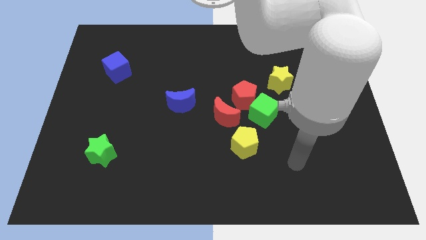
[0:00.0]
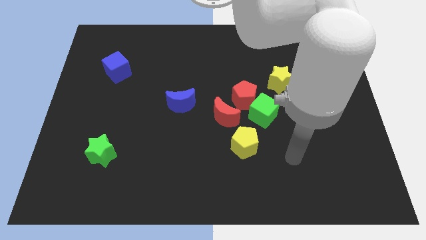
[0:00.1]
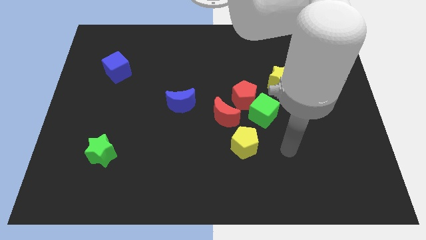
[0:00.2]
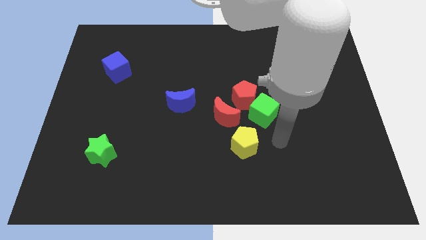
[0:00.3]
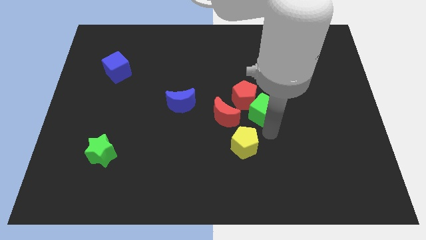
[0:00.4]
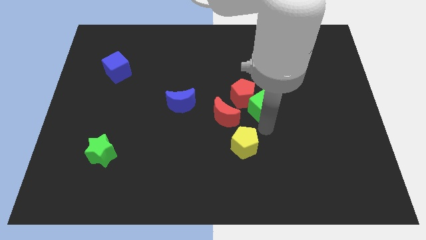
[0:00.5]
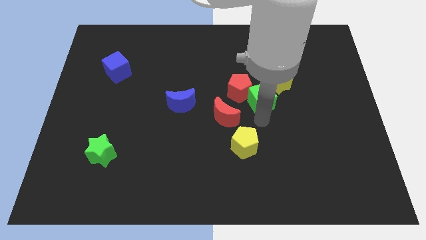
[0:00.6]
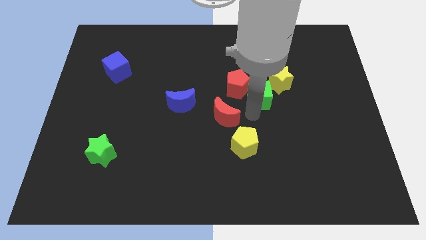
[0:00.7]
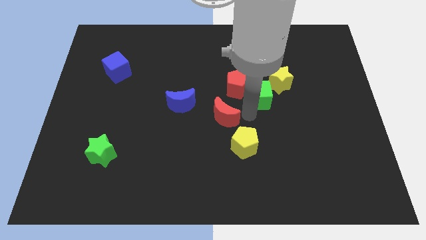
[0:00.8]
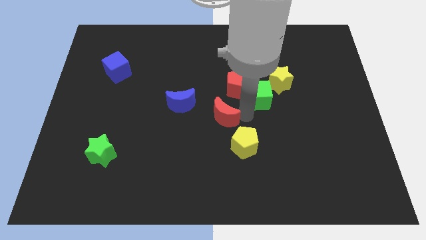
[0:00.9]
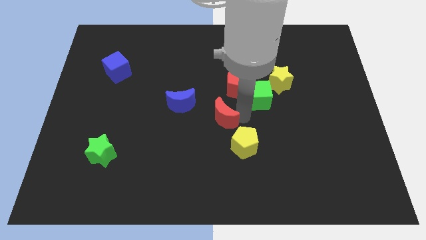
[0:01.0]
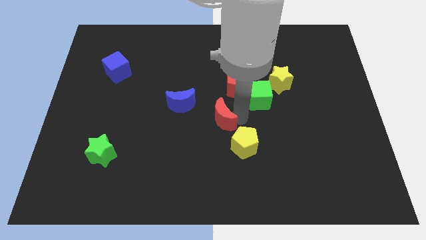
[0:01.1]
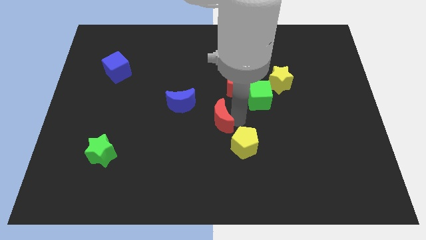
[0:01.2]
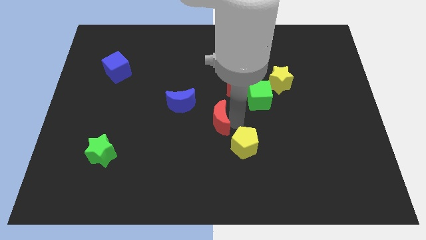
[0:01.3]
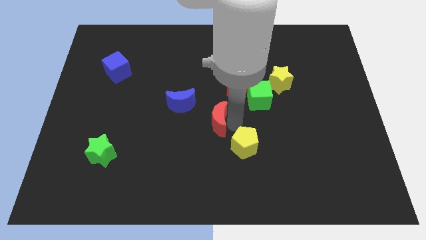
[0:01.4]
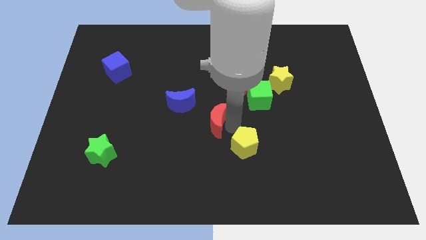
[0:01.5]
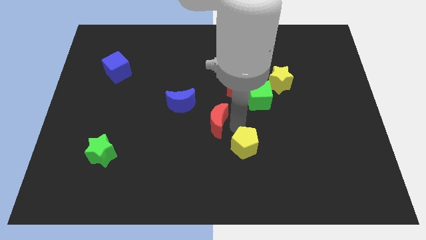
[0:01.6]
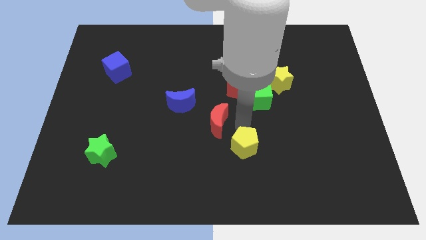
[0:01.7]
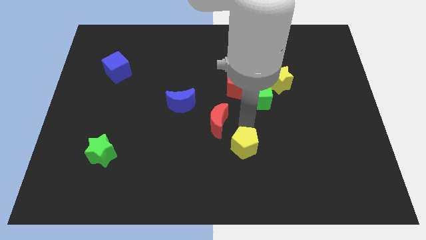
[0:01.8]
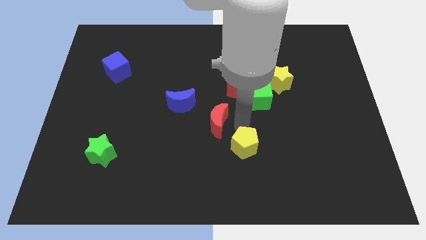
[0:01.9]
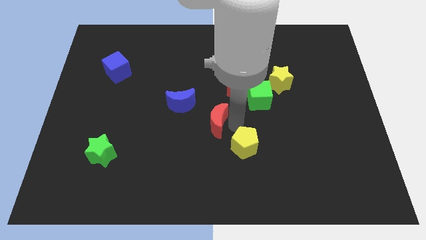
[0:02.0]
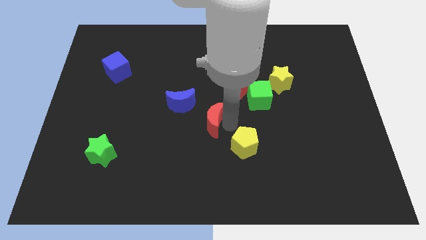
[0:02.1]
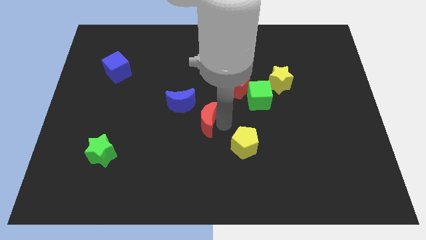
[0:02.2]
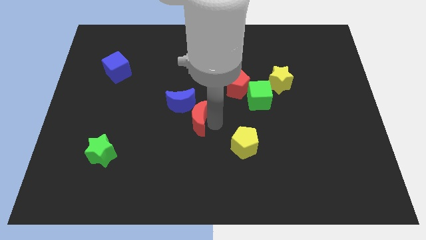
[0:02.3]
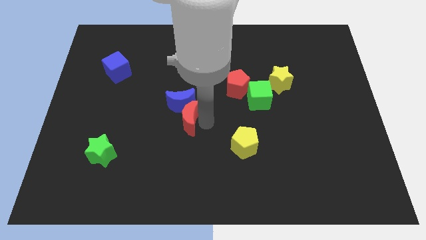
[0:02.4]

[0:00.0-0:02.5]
push the red moon slightly left

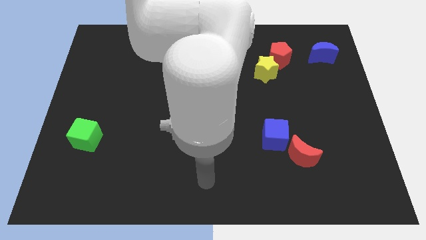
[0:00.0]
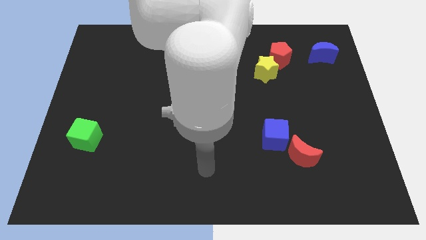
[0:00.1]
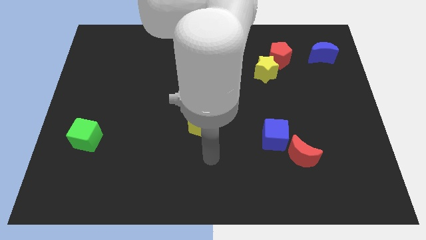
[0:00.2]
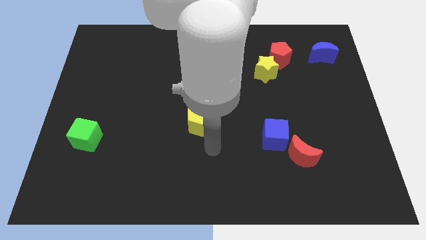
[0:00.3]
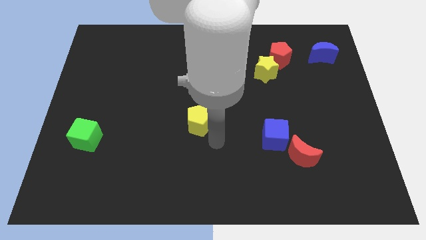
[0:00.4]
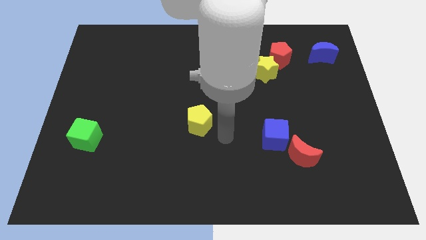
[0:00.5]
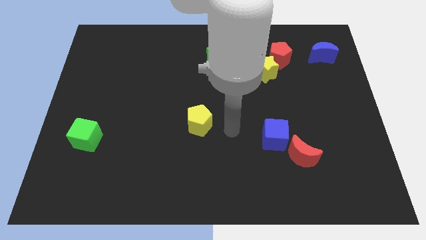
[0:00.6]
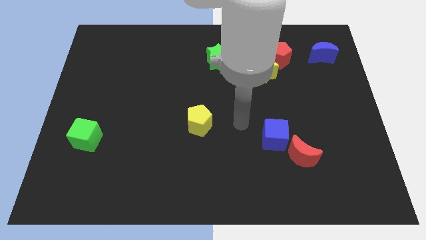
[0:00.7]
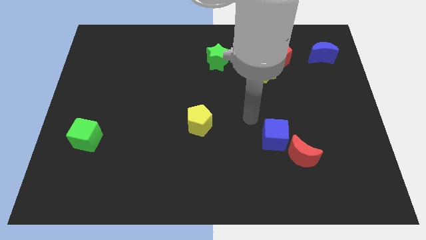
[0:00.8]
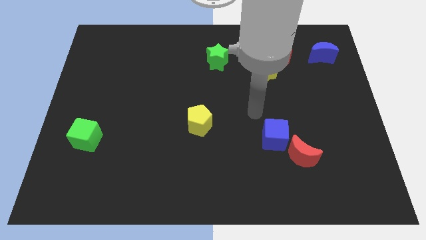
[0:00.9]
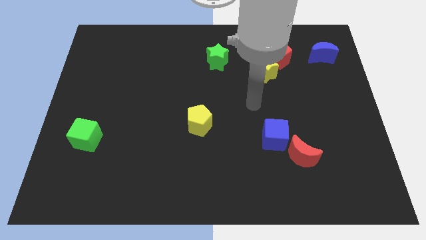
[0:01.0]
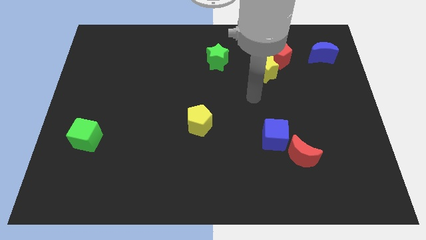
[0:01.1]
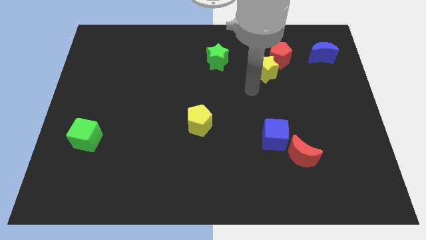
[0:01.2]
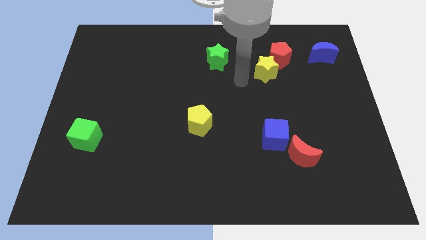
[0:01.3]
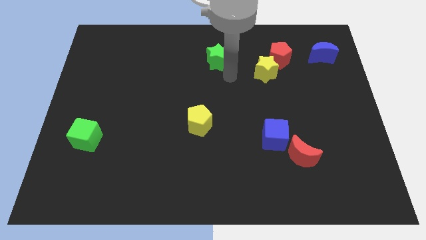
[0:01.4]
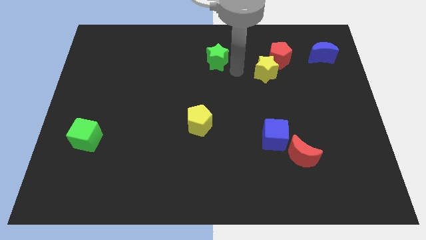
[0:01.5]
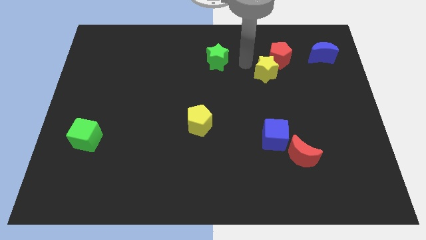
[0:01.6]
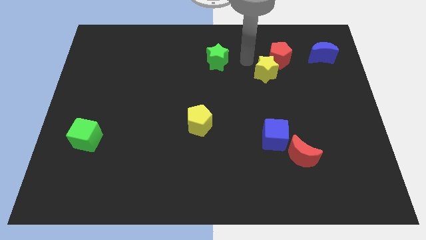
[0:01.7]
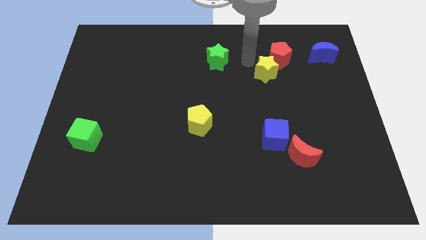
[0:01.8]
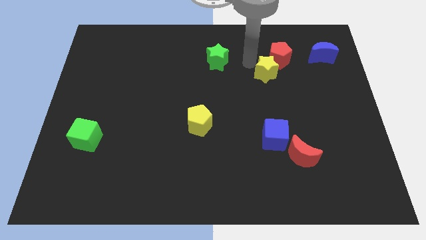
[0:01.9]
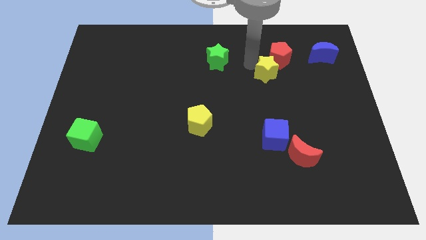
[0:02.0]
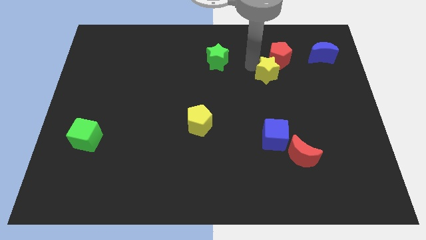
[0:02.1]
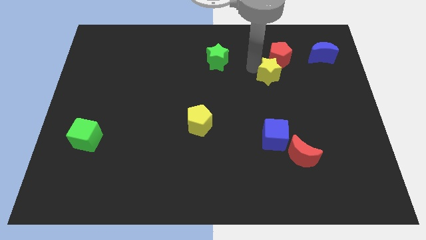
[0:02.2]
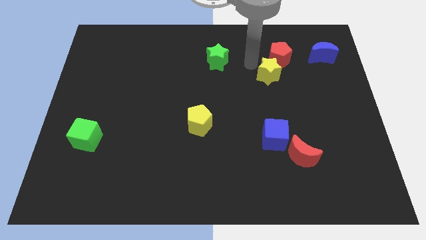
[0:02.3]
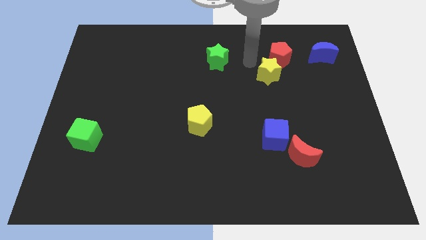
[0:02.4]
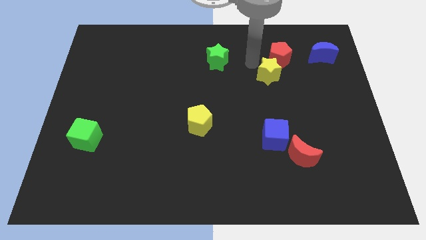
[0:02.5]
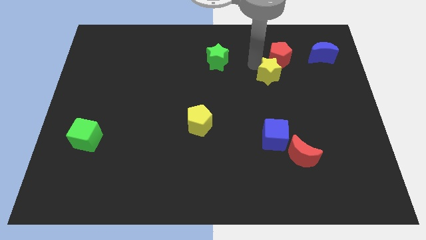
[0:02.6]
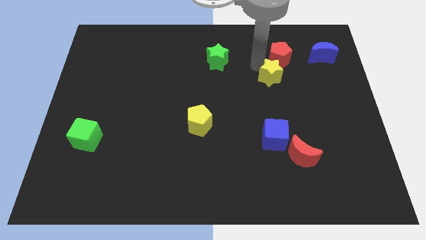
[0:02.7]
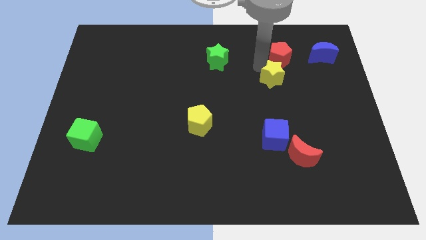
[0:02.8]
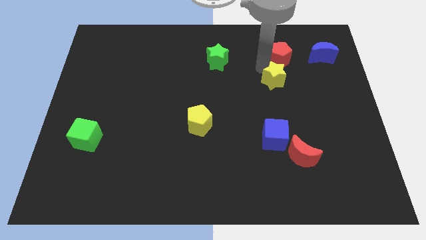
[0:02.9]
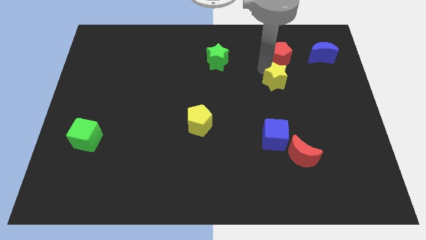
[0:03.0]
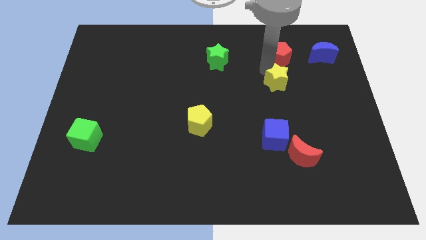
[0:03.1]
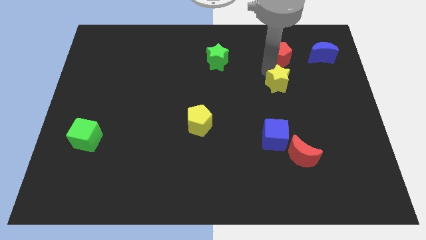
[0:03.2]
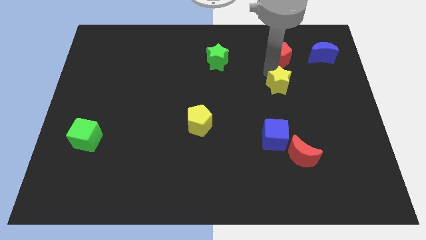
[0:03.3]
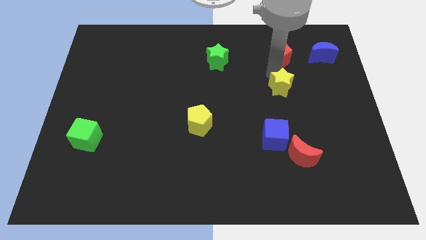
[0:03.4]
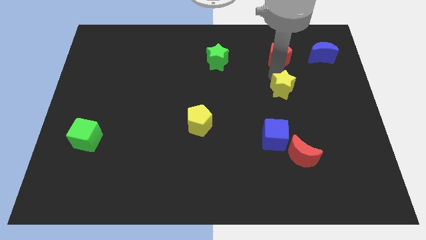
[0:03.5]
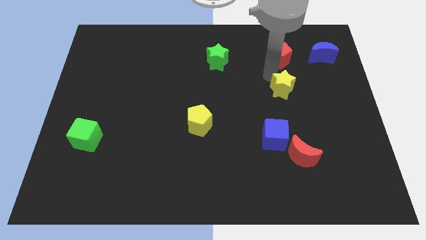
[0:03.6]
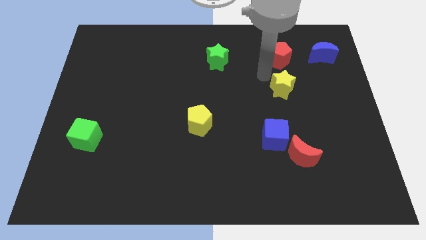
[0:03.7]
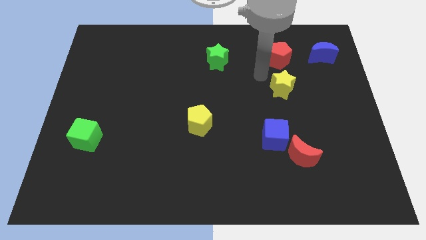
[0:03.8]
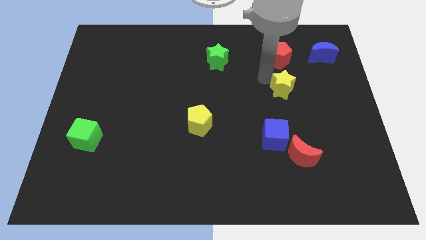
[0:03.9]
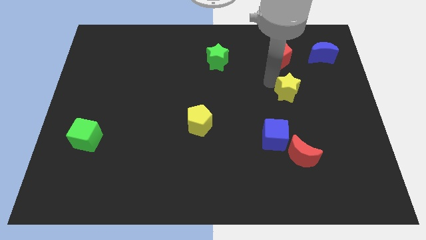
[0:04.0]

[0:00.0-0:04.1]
slightly slide the yellow star downwards and right diagonally

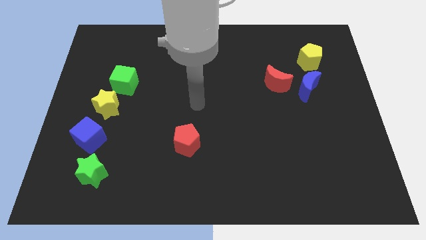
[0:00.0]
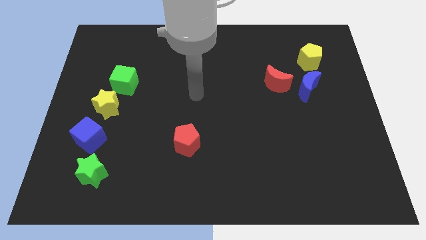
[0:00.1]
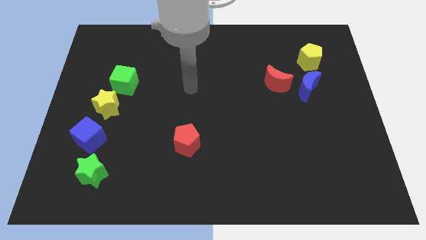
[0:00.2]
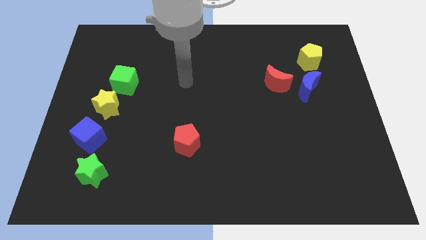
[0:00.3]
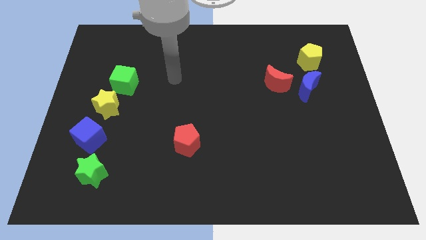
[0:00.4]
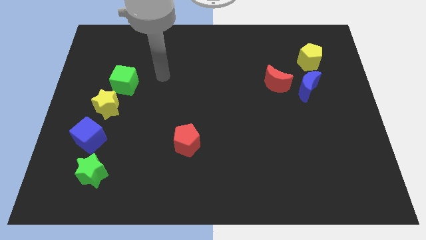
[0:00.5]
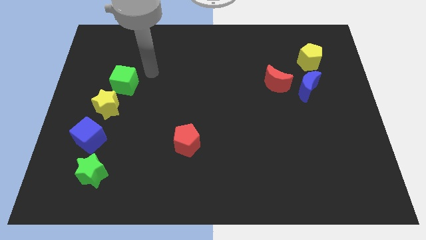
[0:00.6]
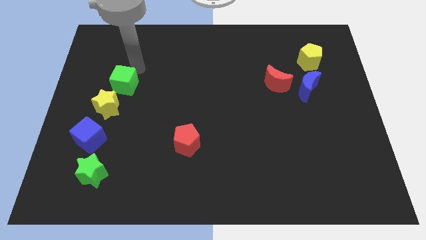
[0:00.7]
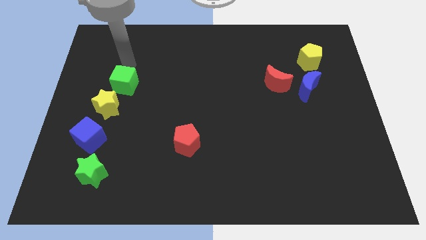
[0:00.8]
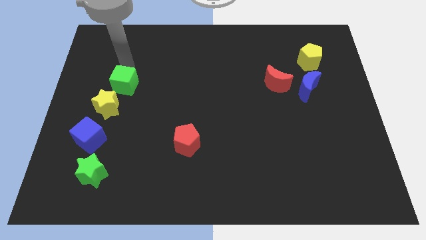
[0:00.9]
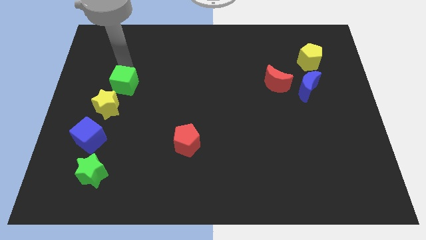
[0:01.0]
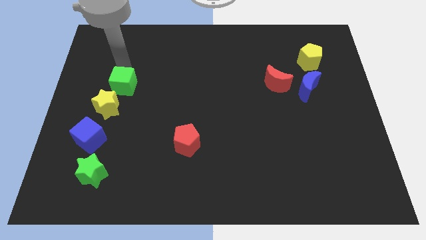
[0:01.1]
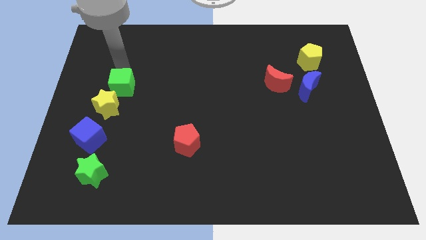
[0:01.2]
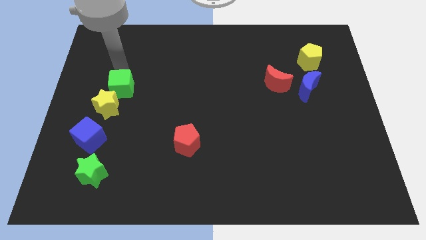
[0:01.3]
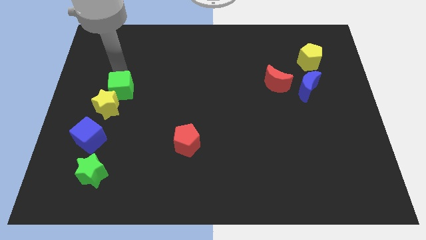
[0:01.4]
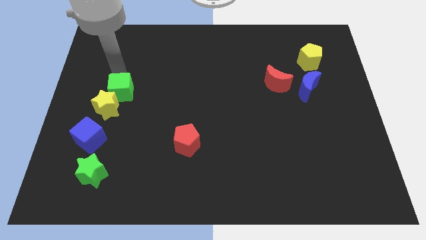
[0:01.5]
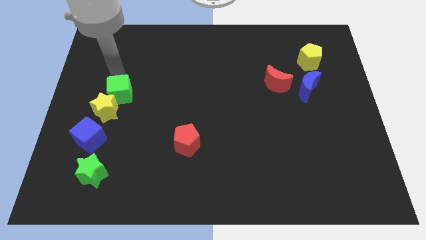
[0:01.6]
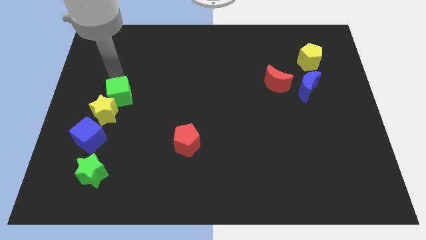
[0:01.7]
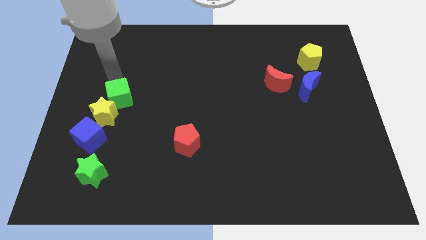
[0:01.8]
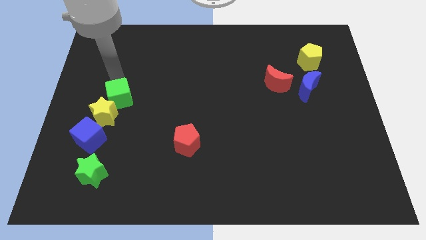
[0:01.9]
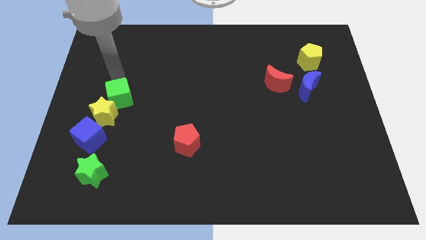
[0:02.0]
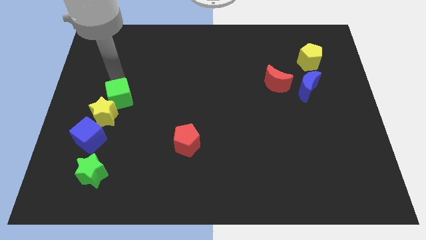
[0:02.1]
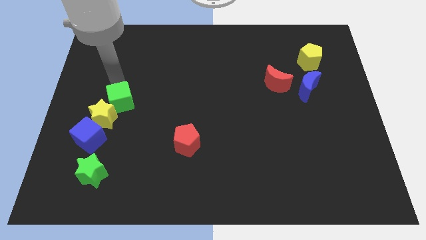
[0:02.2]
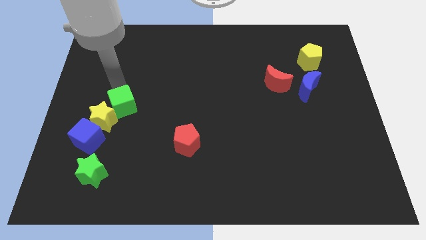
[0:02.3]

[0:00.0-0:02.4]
slide the green cube slightly downwards
